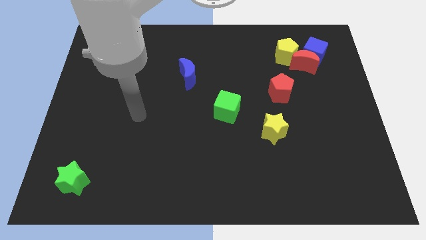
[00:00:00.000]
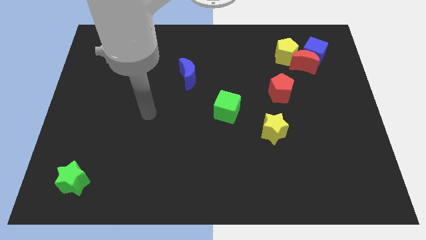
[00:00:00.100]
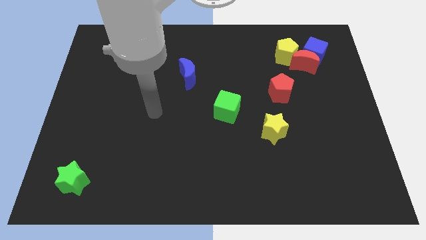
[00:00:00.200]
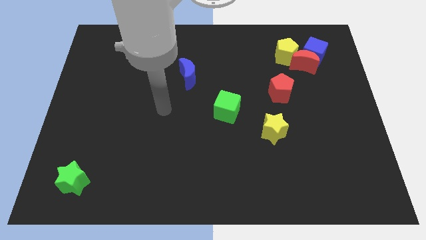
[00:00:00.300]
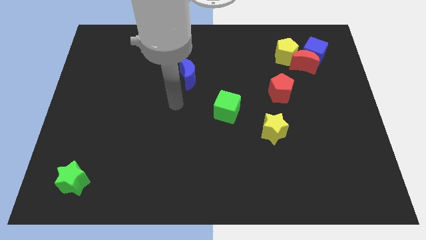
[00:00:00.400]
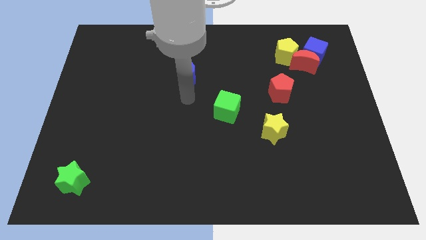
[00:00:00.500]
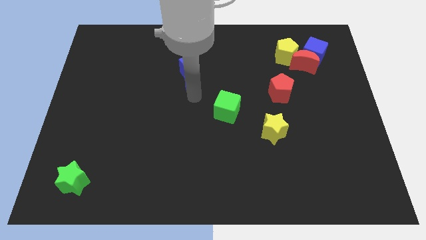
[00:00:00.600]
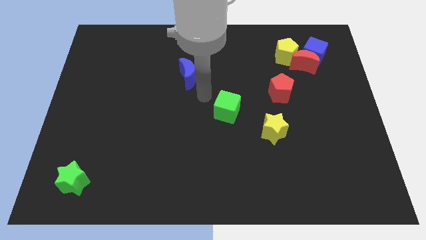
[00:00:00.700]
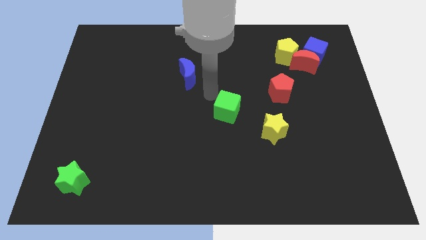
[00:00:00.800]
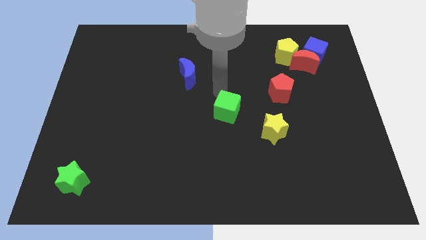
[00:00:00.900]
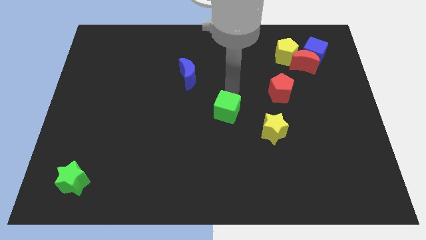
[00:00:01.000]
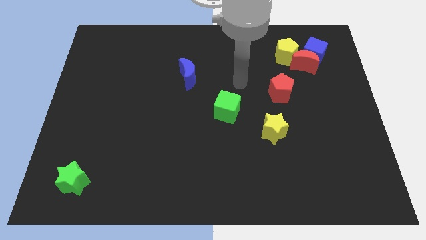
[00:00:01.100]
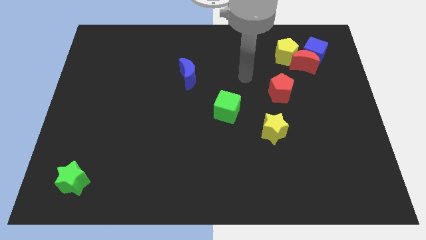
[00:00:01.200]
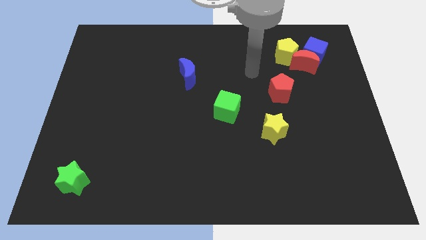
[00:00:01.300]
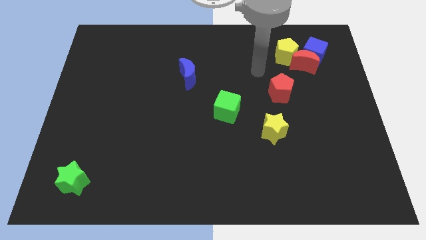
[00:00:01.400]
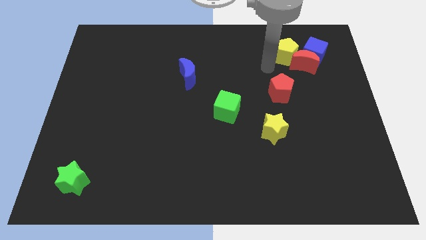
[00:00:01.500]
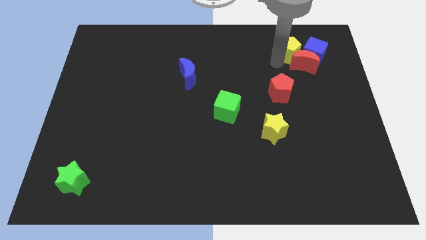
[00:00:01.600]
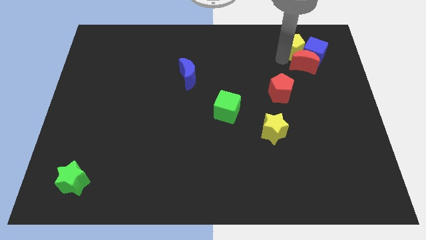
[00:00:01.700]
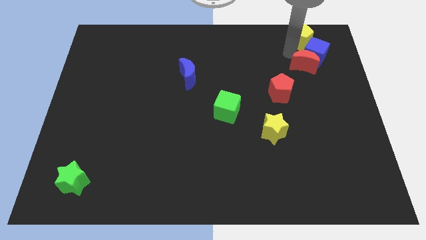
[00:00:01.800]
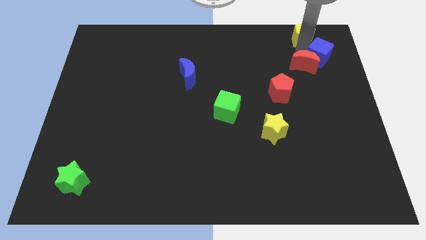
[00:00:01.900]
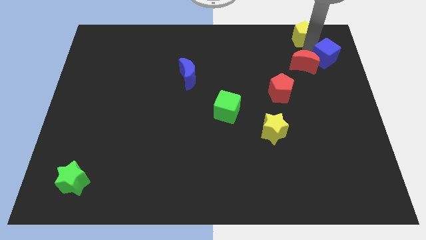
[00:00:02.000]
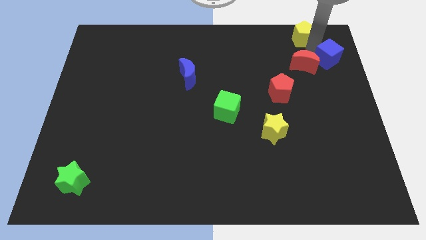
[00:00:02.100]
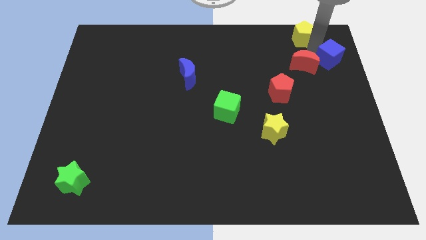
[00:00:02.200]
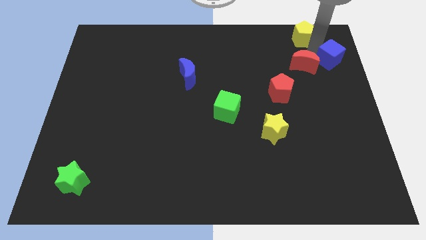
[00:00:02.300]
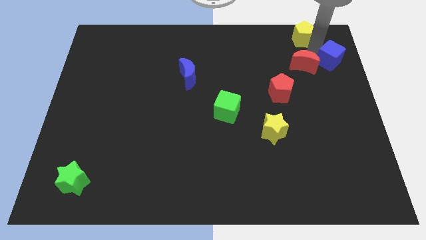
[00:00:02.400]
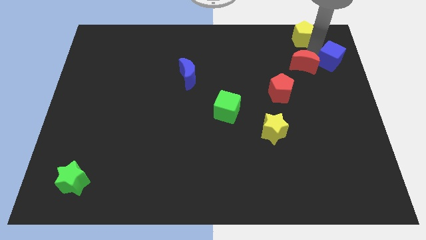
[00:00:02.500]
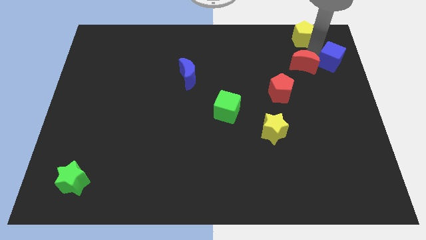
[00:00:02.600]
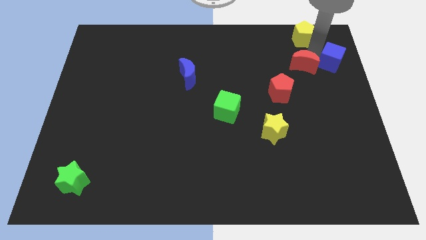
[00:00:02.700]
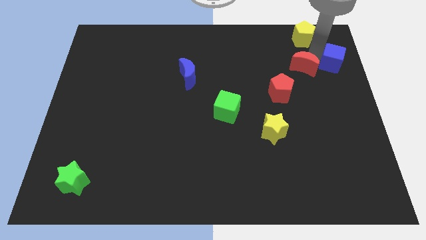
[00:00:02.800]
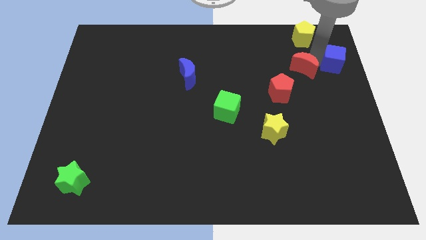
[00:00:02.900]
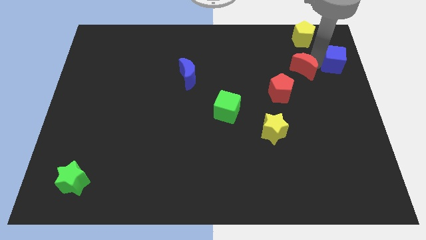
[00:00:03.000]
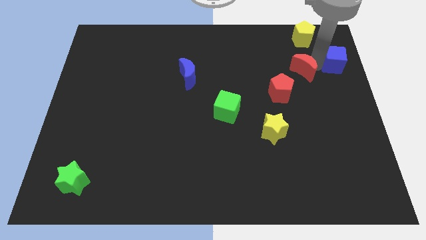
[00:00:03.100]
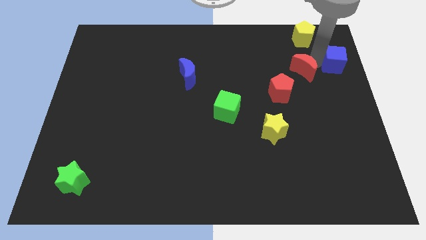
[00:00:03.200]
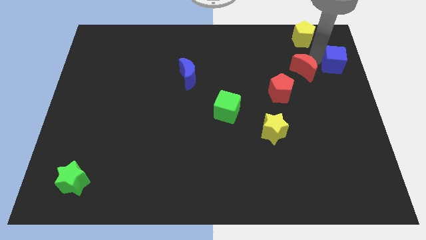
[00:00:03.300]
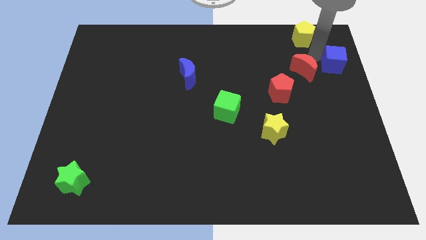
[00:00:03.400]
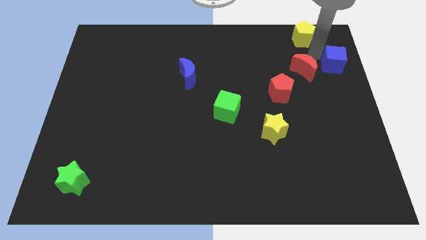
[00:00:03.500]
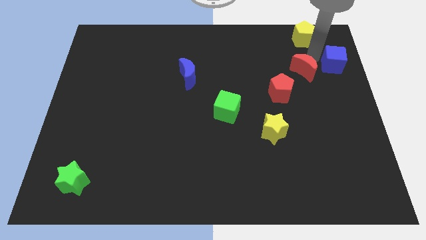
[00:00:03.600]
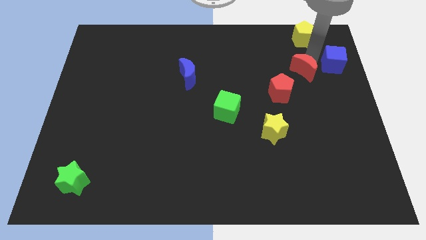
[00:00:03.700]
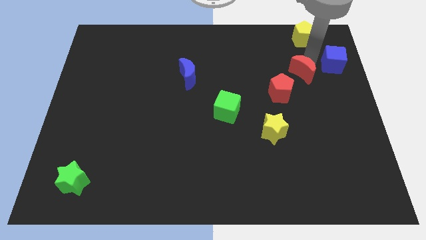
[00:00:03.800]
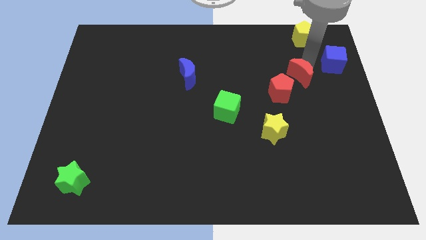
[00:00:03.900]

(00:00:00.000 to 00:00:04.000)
move the red moon away from the blue cube and yellow pentagon

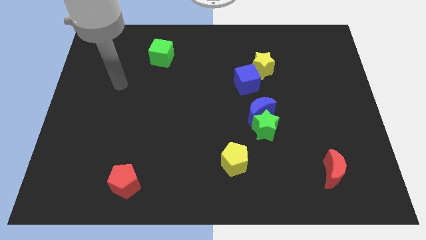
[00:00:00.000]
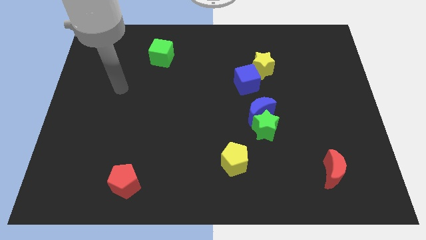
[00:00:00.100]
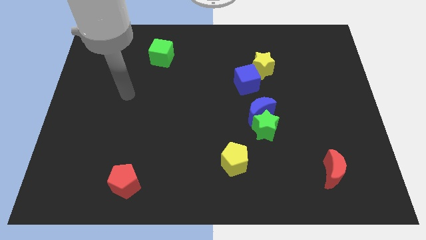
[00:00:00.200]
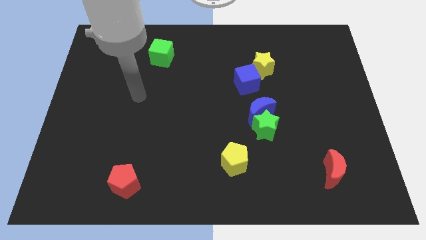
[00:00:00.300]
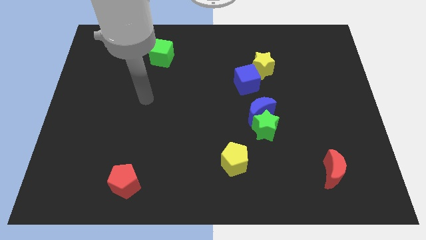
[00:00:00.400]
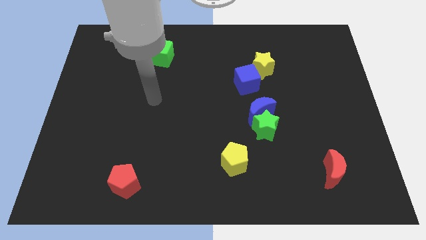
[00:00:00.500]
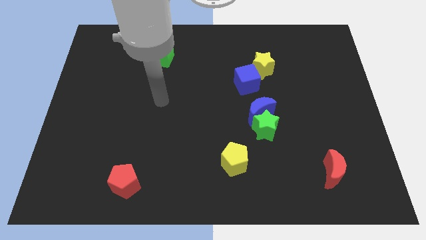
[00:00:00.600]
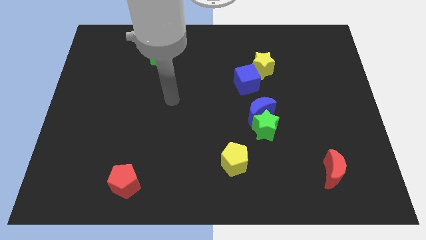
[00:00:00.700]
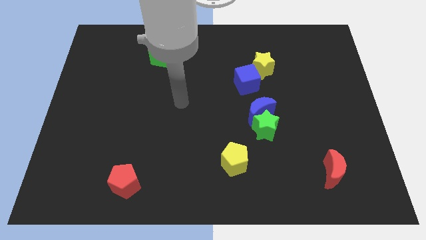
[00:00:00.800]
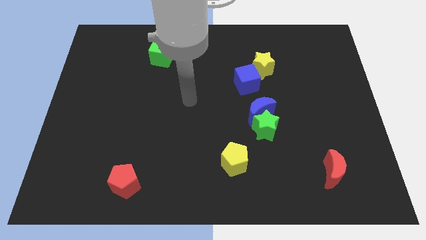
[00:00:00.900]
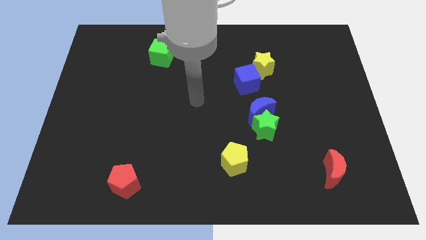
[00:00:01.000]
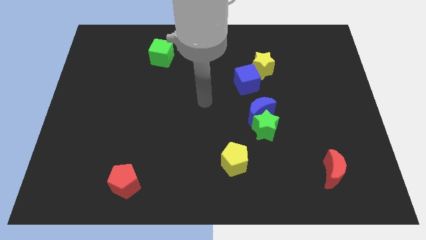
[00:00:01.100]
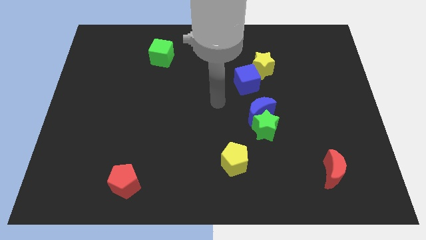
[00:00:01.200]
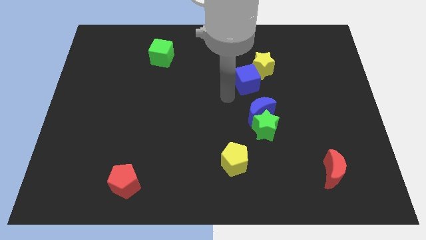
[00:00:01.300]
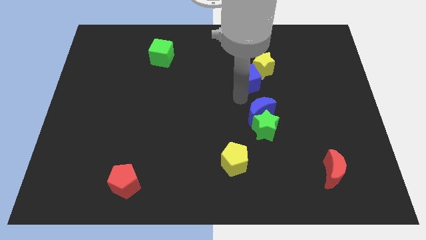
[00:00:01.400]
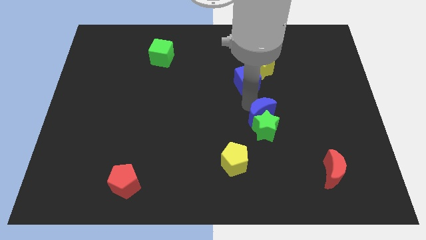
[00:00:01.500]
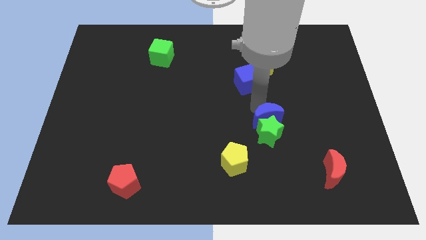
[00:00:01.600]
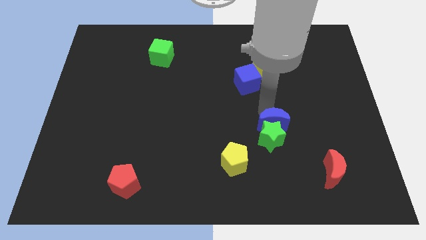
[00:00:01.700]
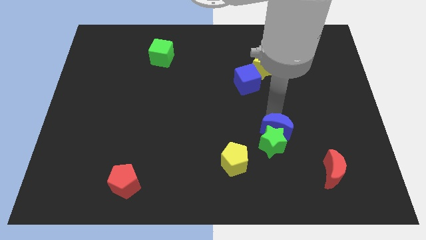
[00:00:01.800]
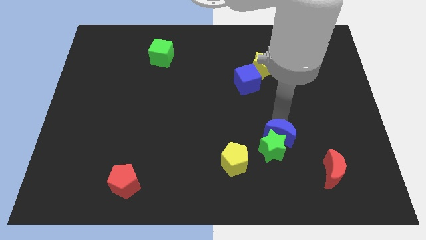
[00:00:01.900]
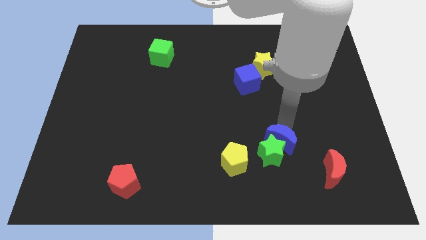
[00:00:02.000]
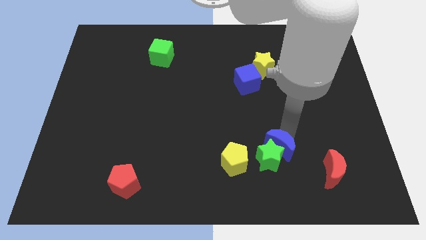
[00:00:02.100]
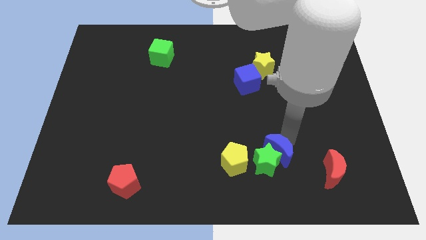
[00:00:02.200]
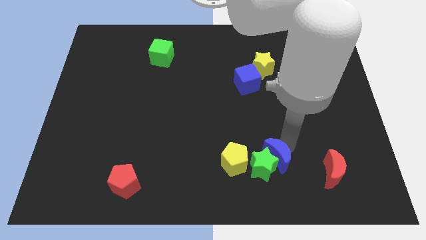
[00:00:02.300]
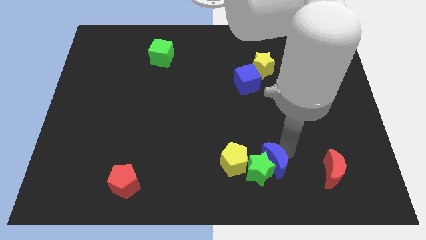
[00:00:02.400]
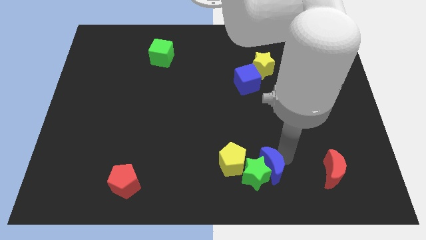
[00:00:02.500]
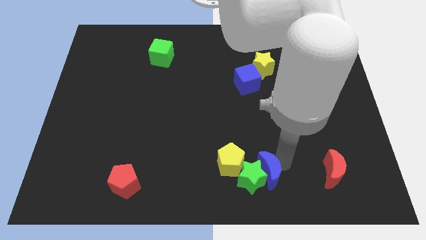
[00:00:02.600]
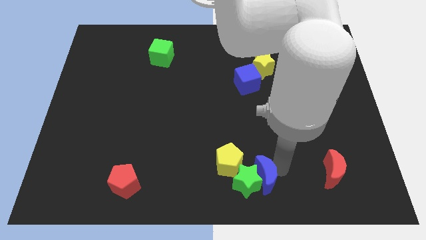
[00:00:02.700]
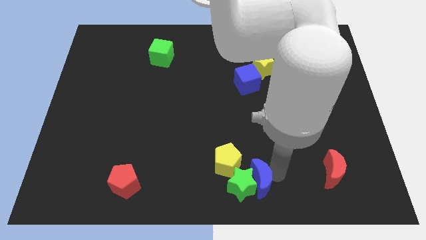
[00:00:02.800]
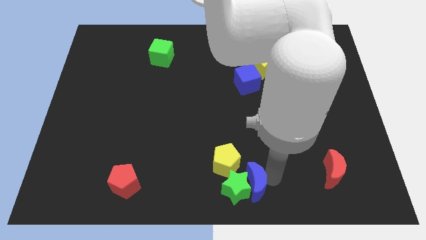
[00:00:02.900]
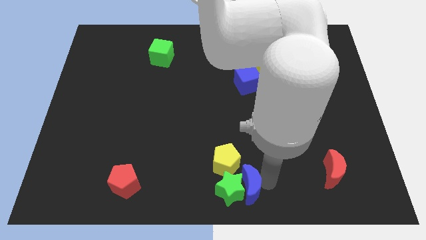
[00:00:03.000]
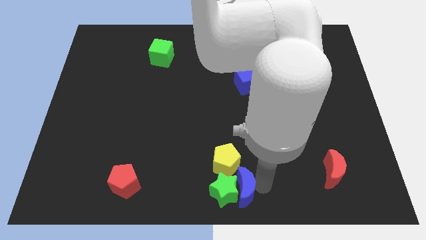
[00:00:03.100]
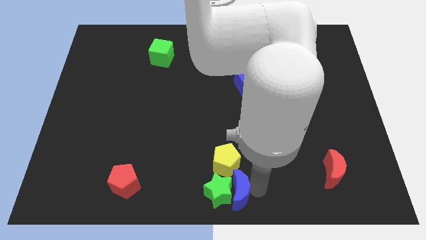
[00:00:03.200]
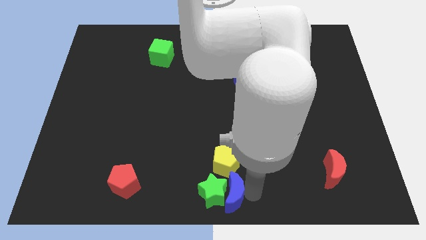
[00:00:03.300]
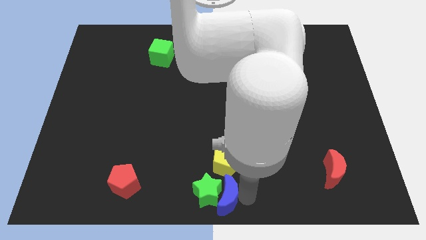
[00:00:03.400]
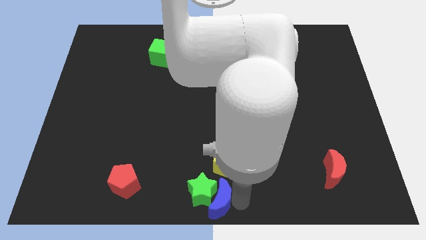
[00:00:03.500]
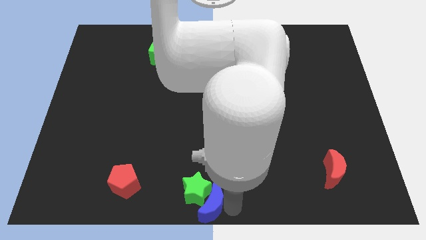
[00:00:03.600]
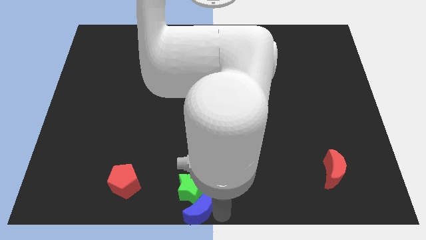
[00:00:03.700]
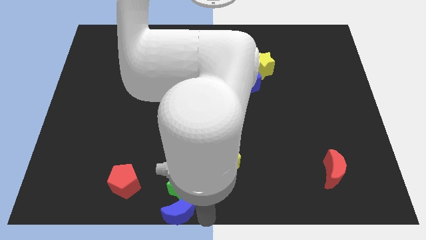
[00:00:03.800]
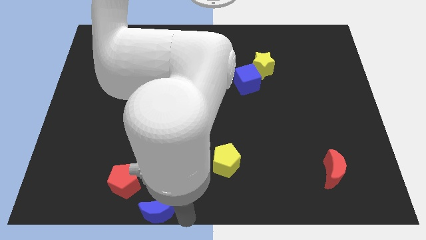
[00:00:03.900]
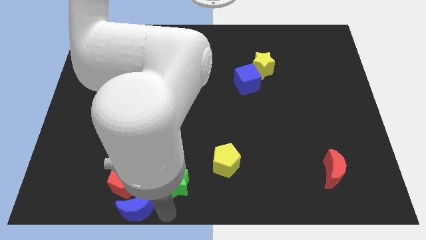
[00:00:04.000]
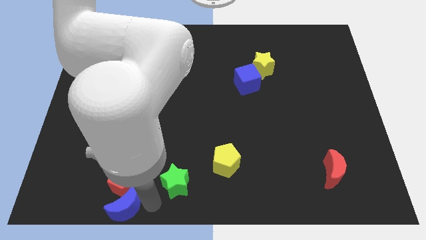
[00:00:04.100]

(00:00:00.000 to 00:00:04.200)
separate the green star from the blue moon

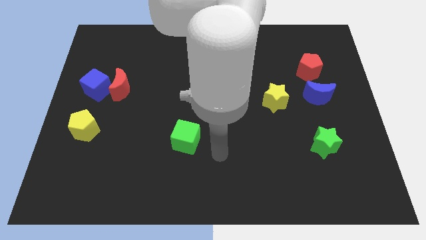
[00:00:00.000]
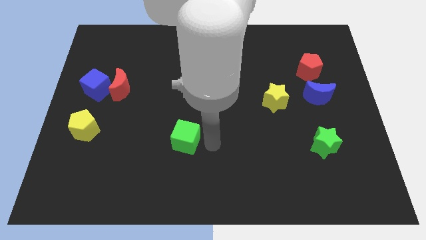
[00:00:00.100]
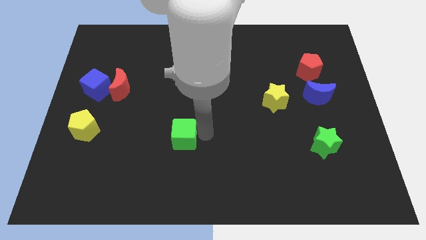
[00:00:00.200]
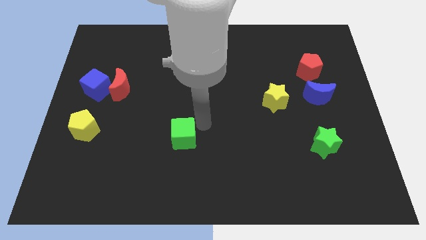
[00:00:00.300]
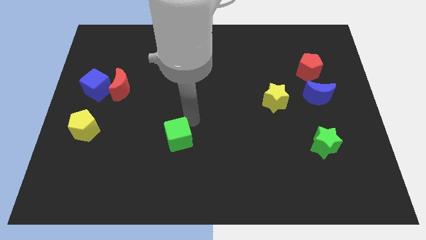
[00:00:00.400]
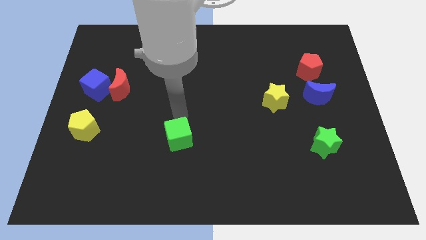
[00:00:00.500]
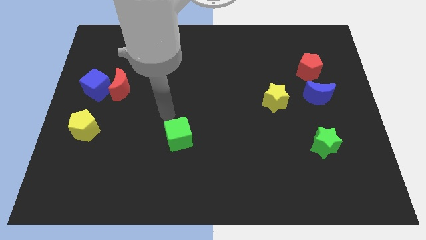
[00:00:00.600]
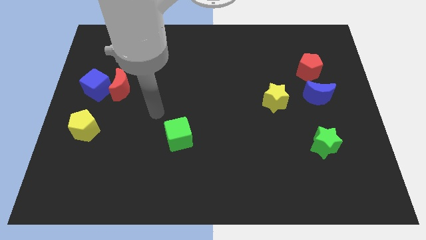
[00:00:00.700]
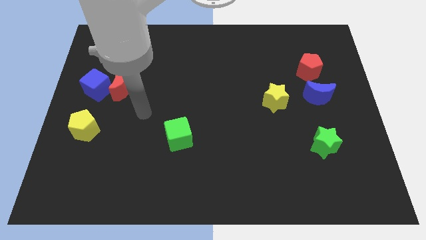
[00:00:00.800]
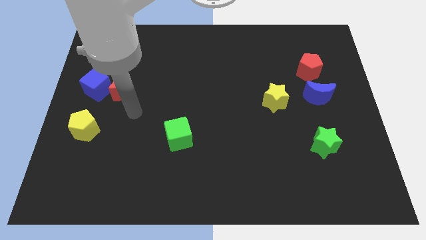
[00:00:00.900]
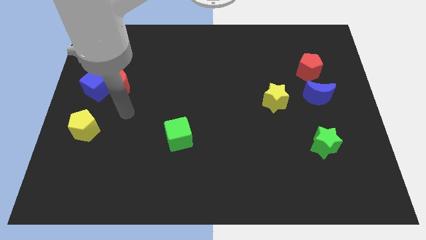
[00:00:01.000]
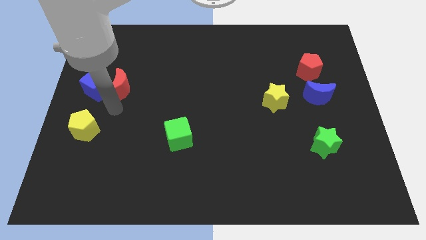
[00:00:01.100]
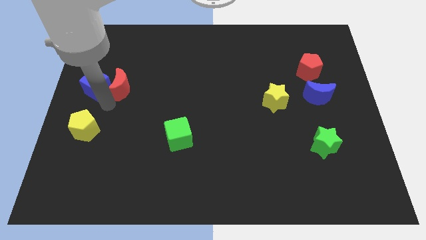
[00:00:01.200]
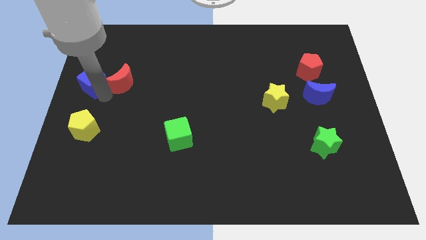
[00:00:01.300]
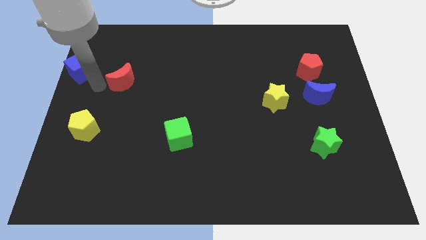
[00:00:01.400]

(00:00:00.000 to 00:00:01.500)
separate the red moon from the blue cube
